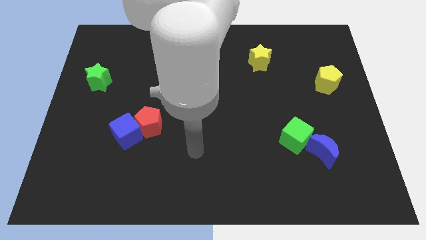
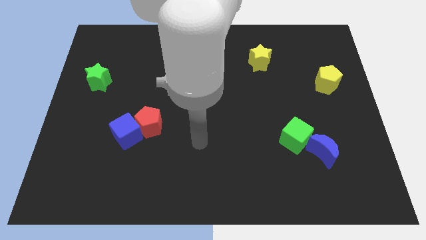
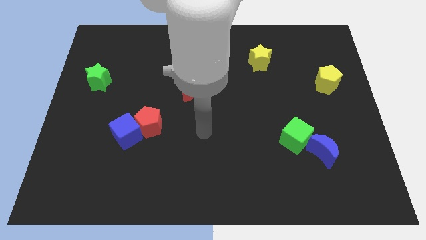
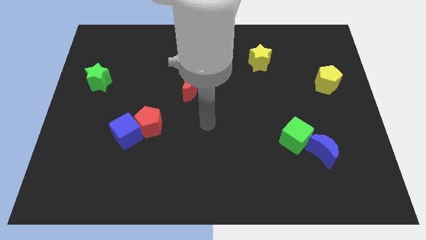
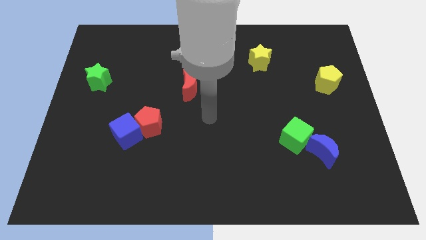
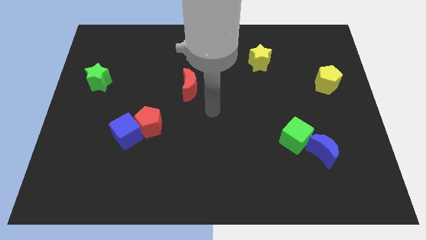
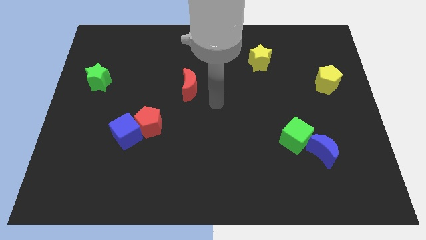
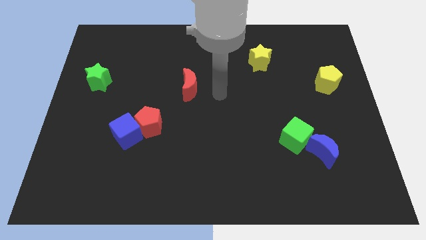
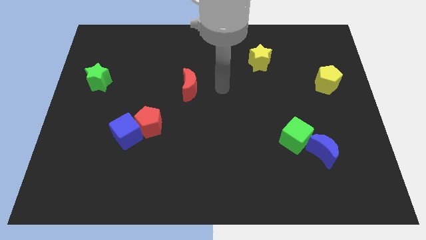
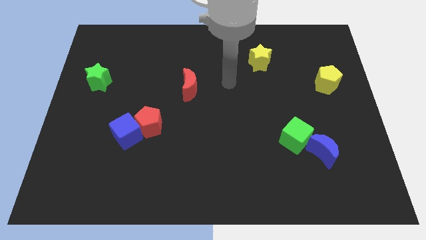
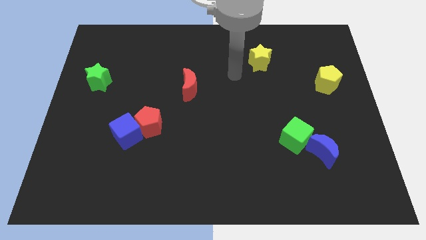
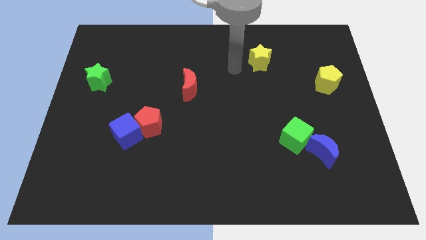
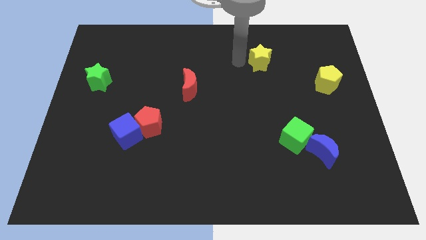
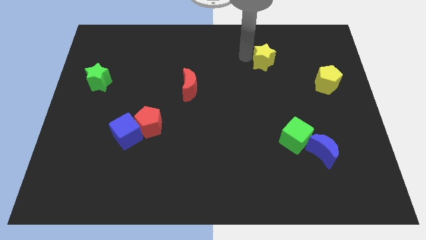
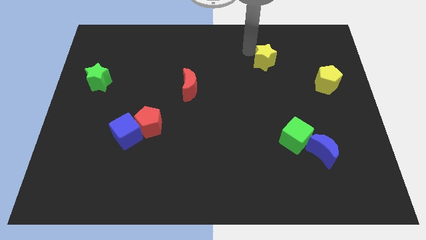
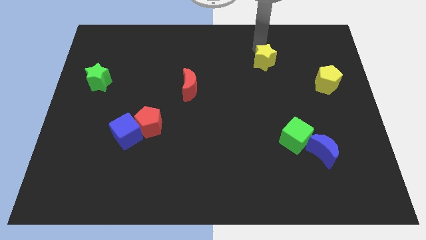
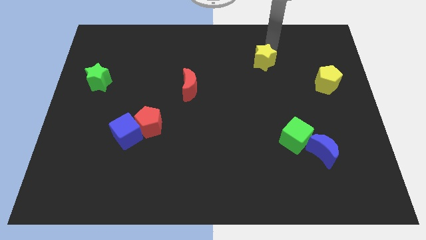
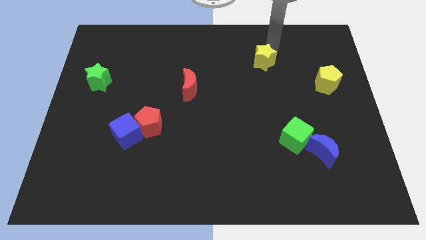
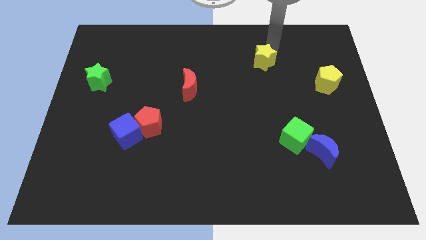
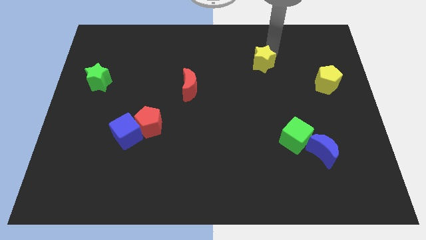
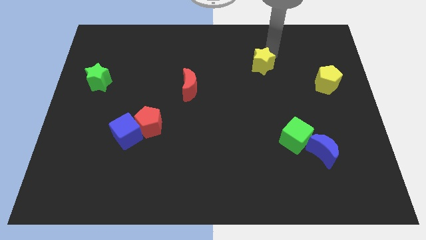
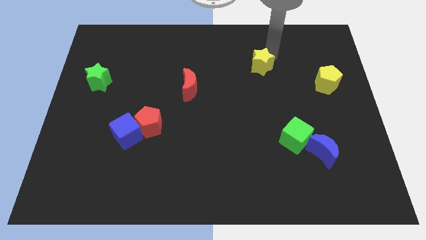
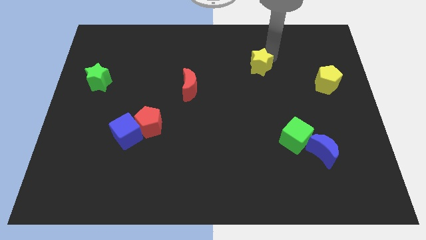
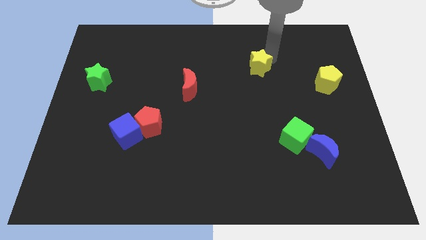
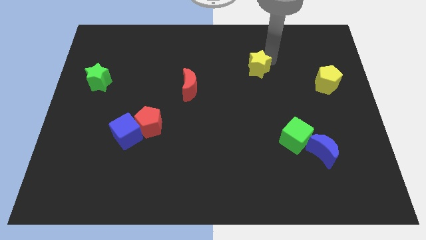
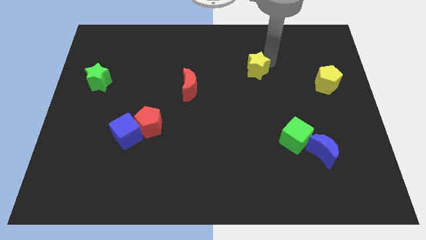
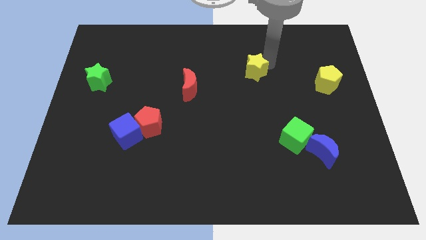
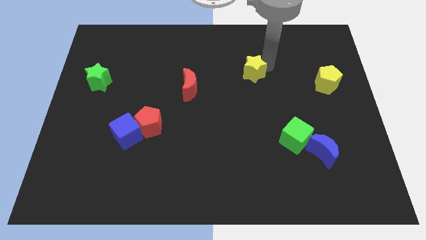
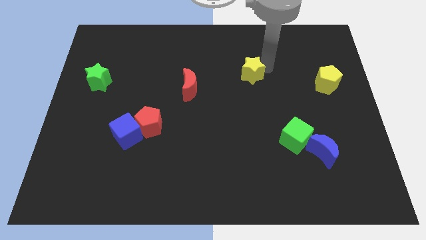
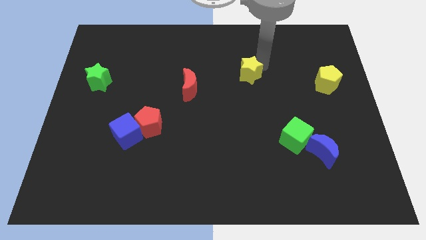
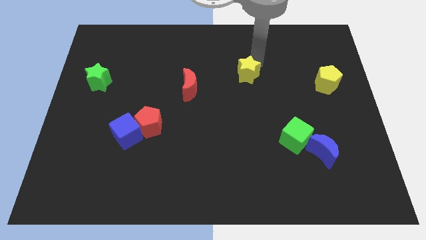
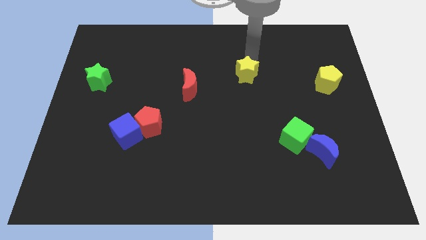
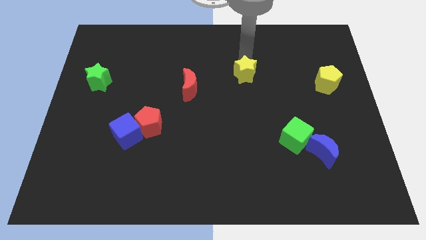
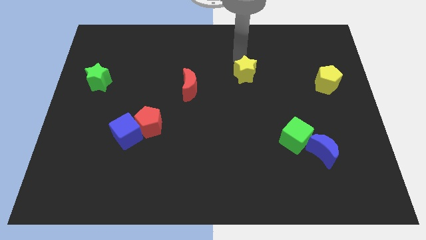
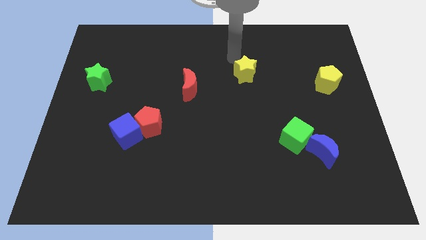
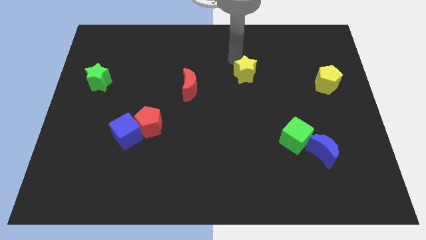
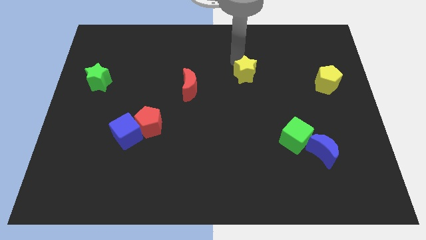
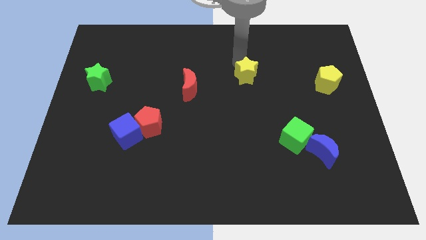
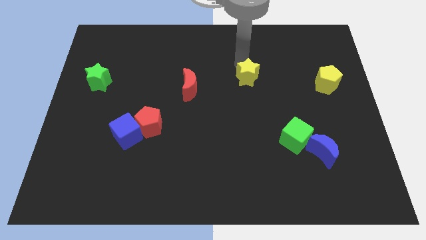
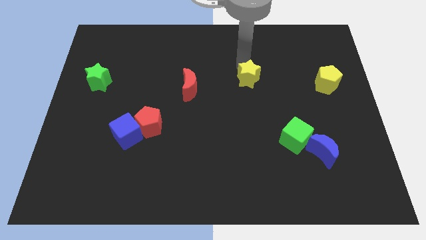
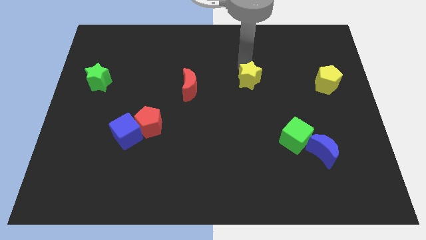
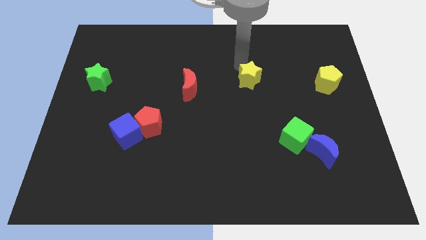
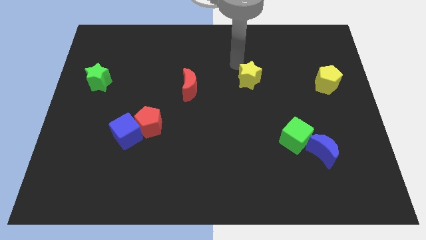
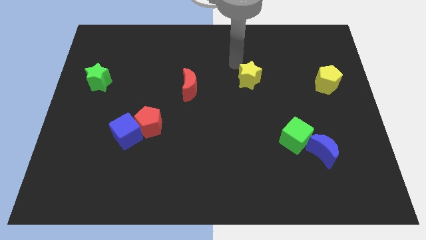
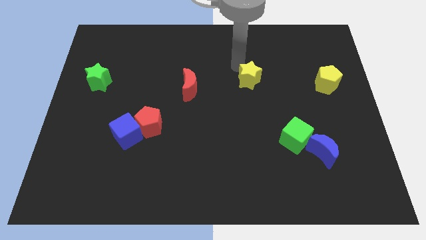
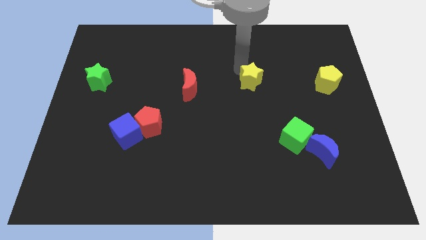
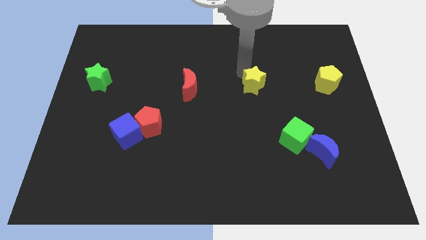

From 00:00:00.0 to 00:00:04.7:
move the yellow star somewhat downwards

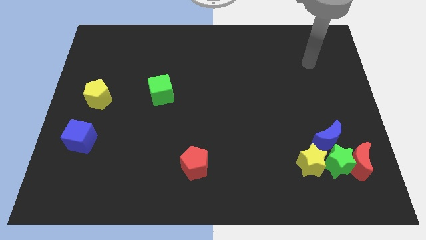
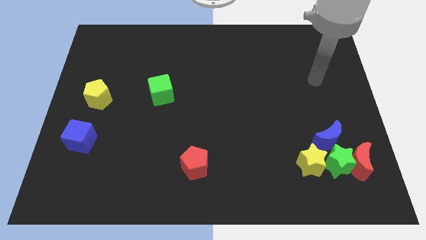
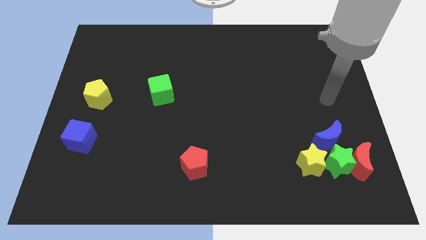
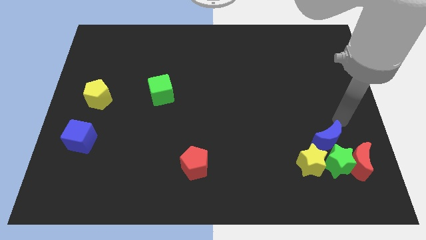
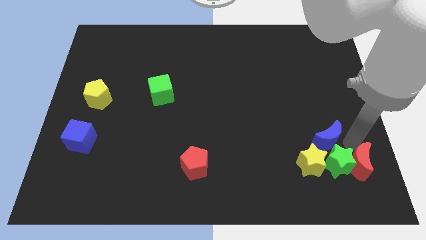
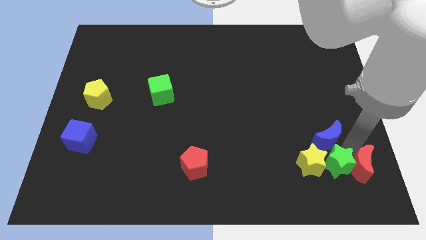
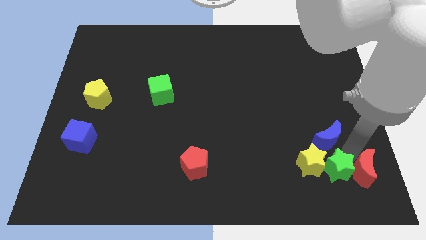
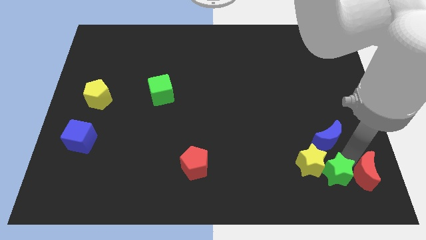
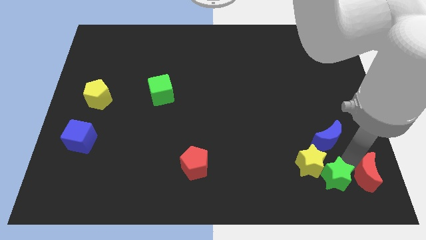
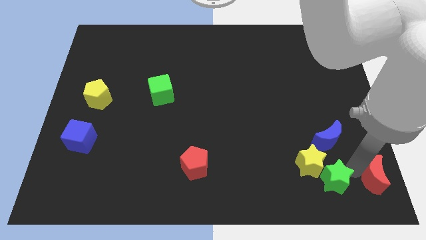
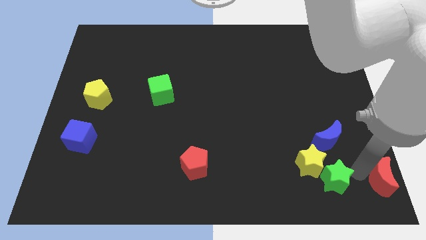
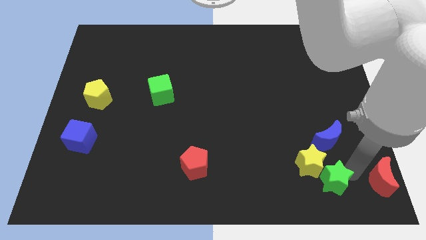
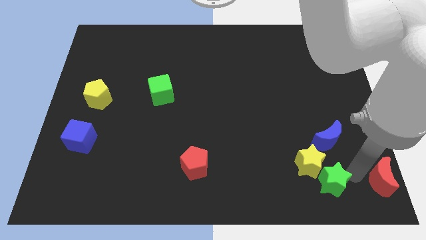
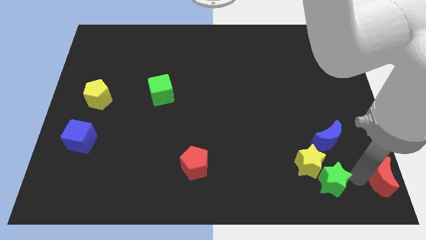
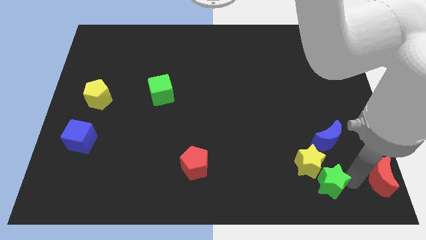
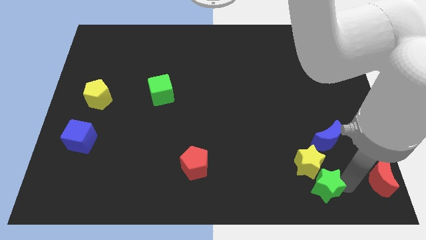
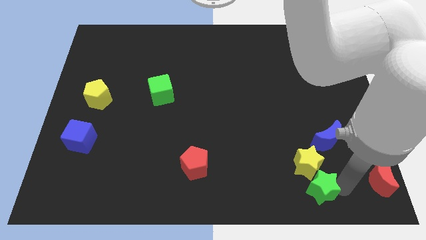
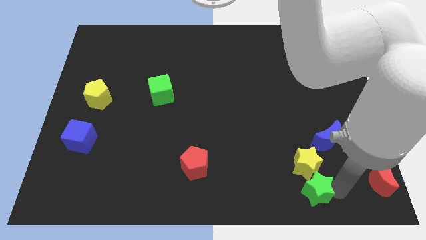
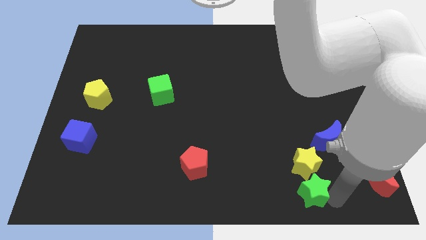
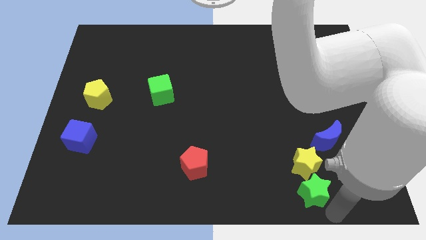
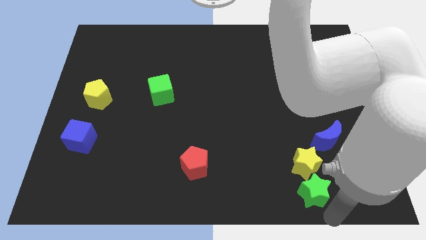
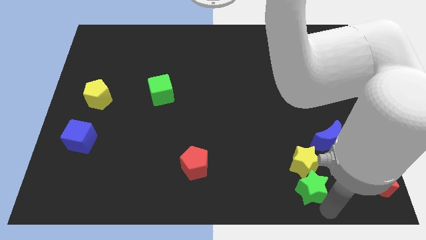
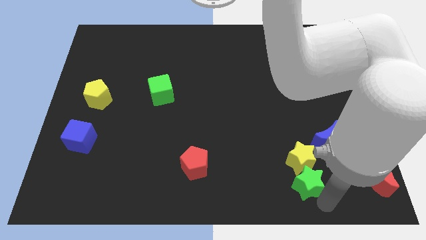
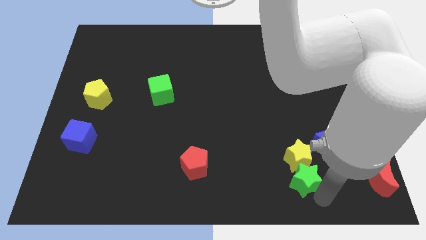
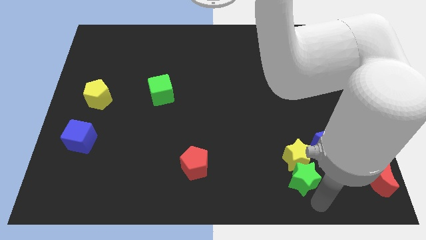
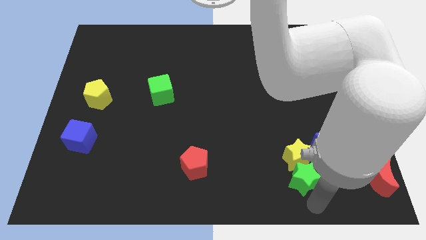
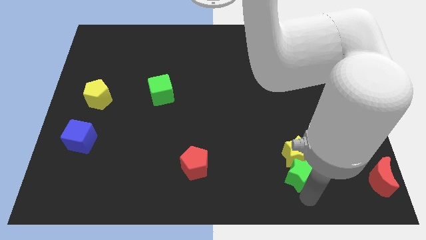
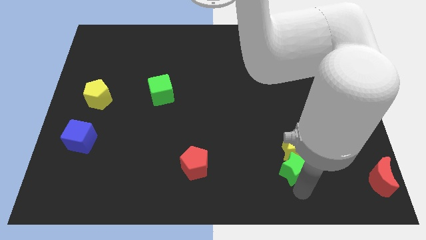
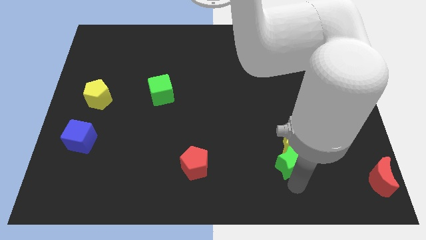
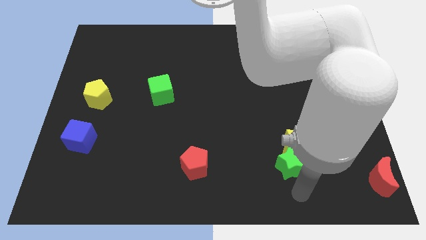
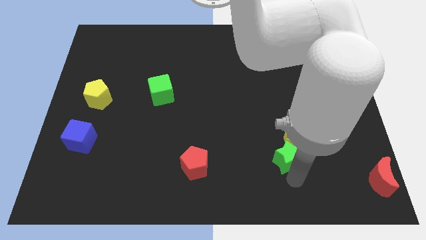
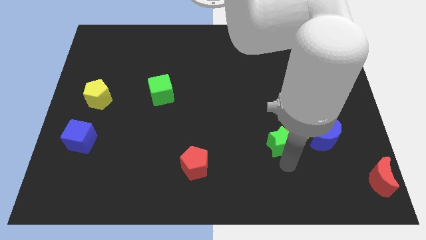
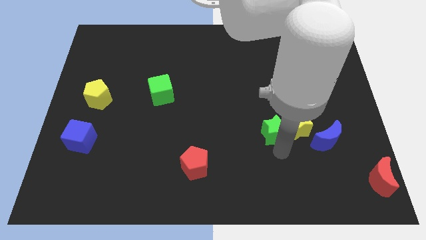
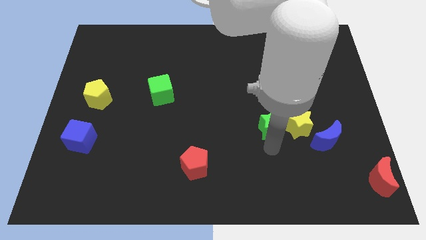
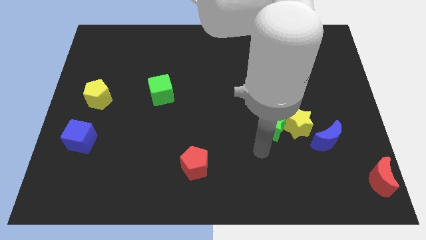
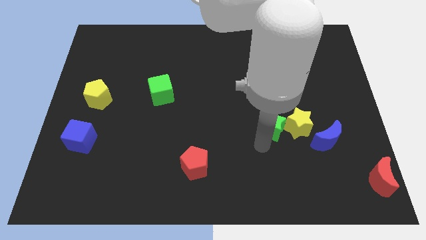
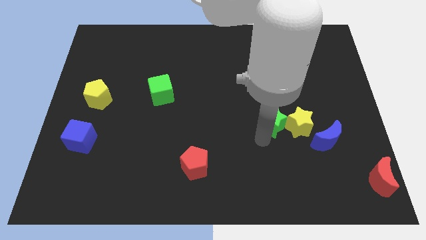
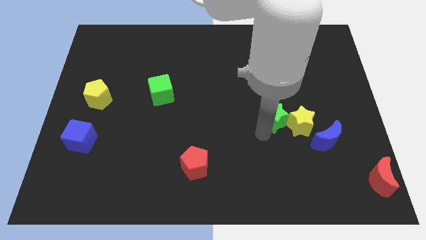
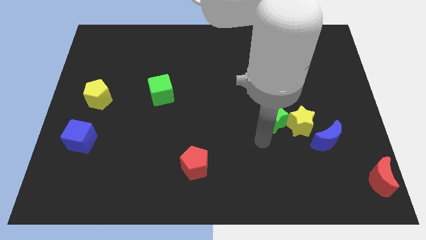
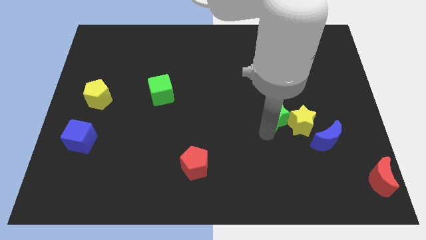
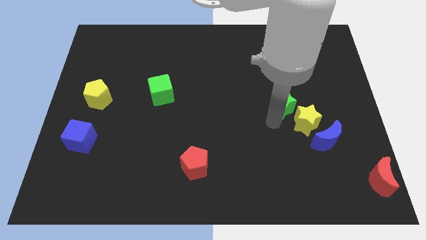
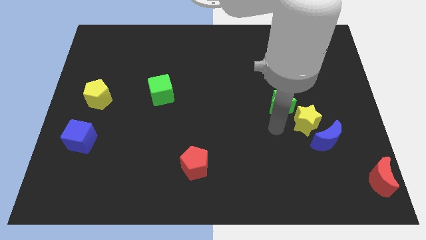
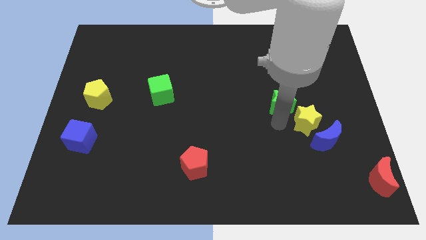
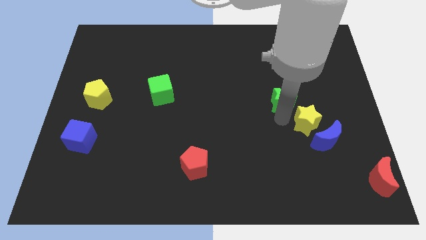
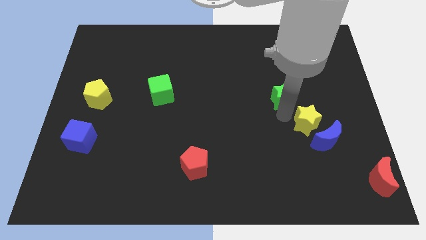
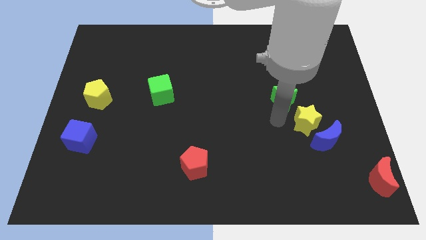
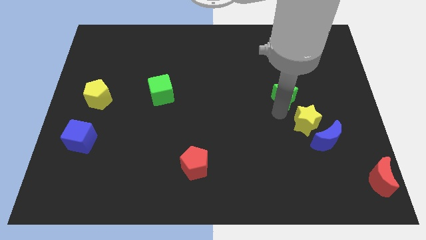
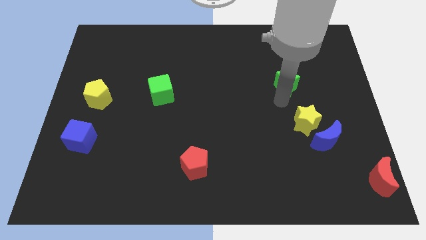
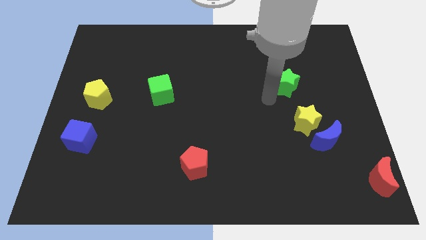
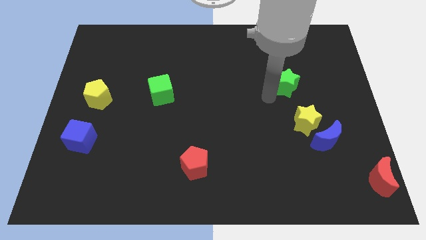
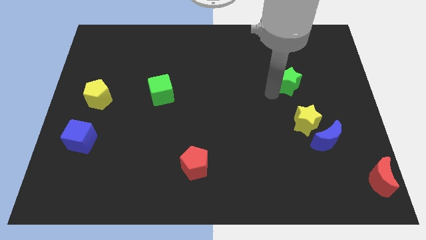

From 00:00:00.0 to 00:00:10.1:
move the green star upwards
